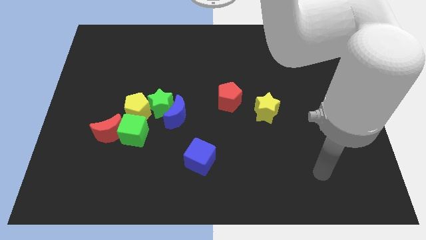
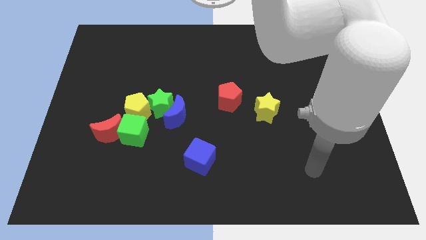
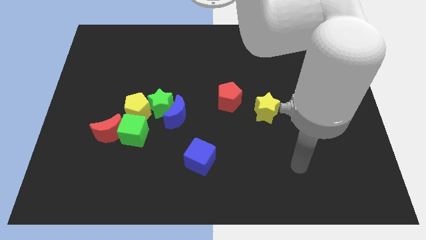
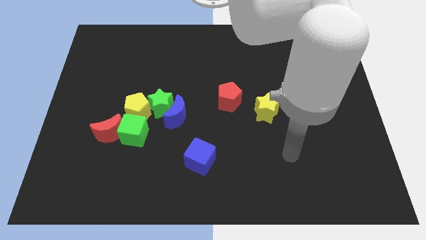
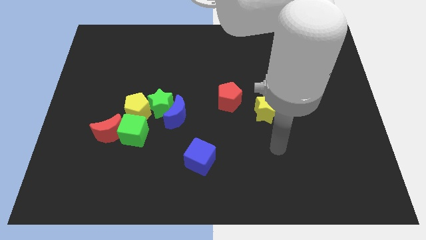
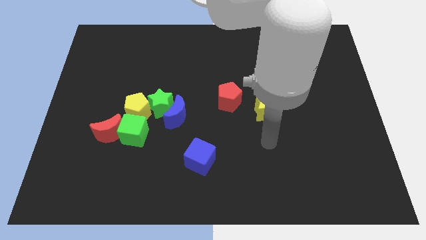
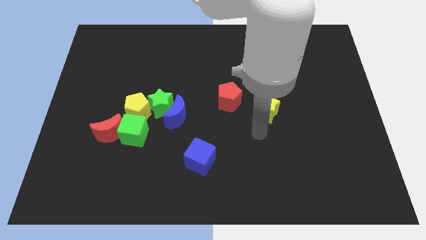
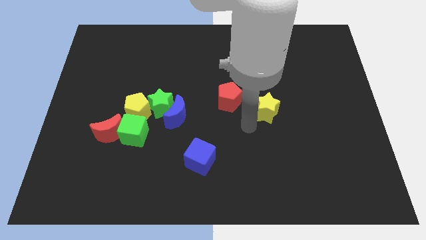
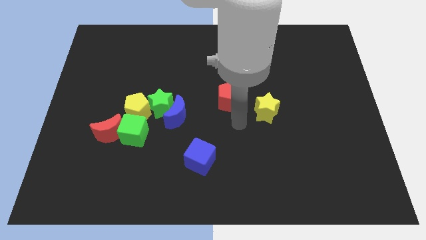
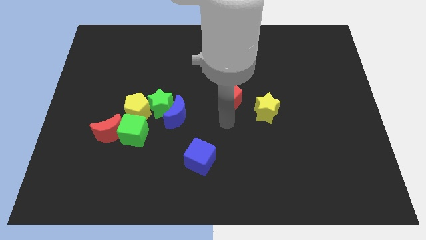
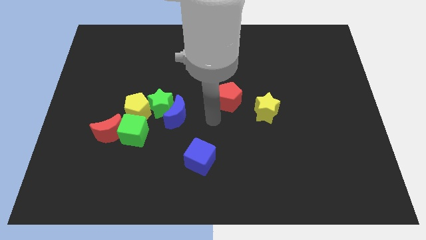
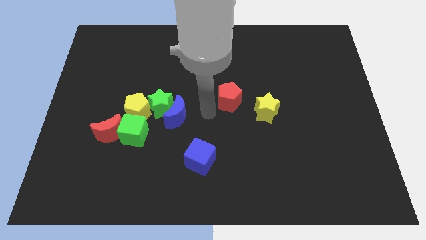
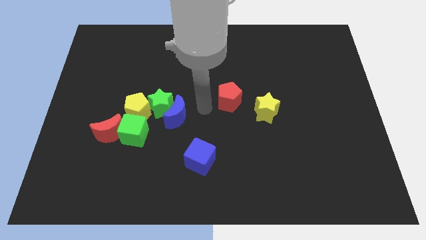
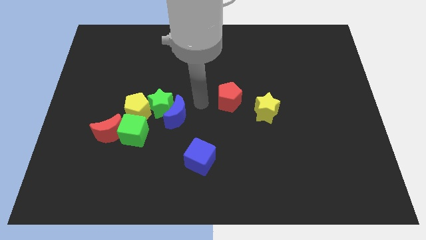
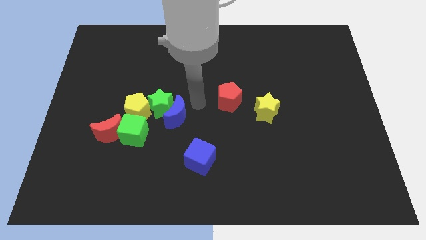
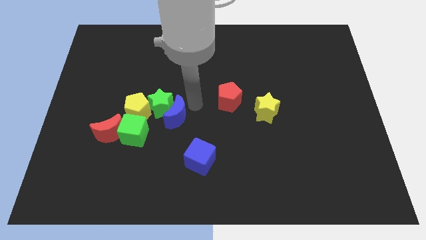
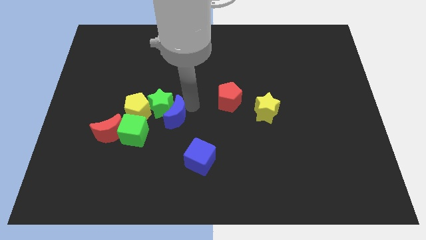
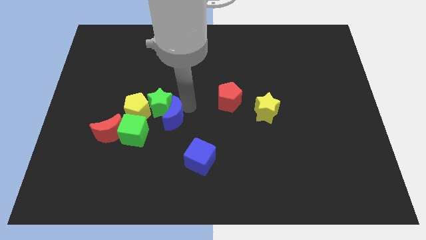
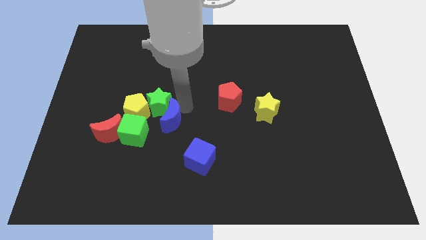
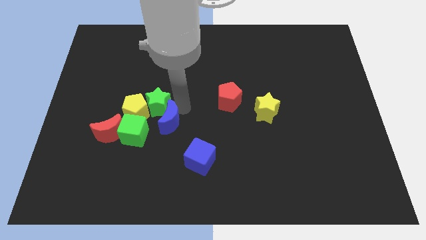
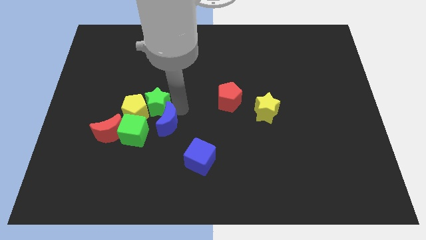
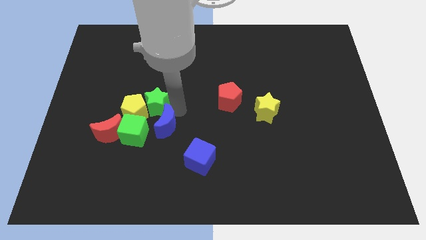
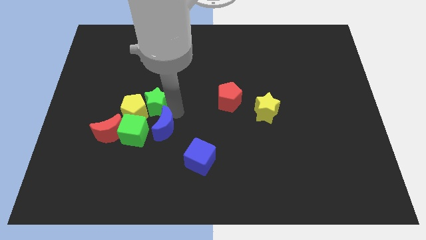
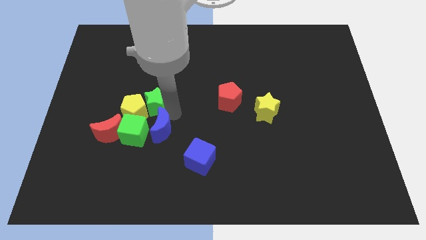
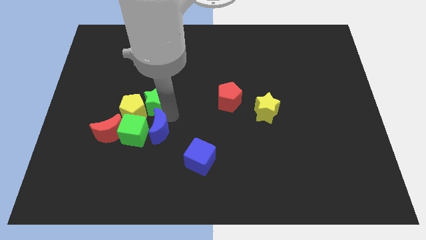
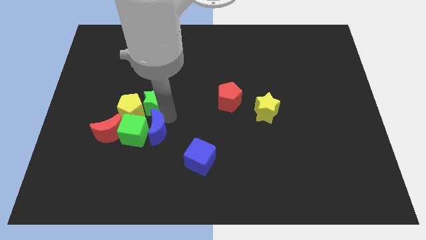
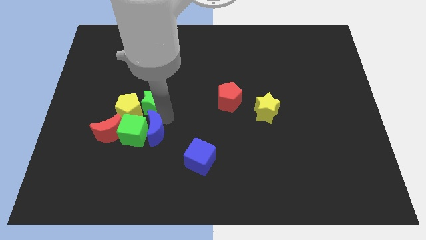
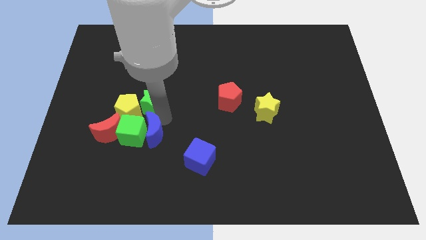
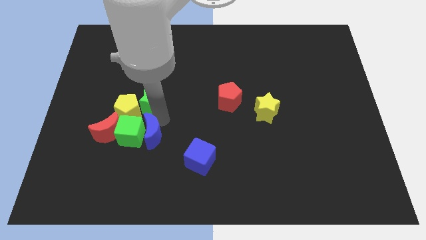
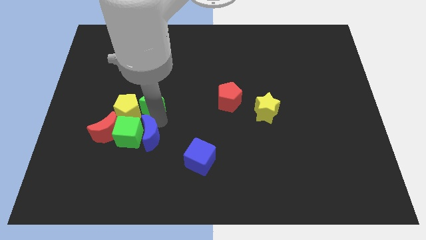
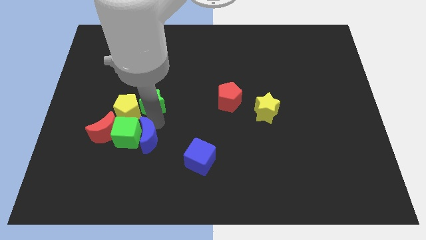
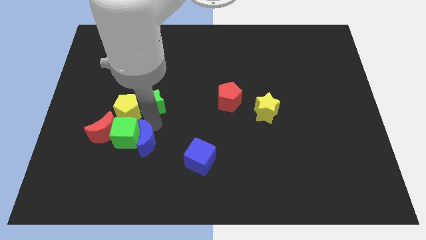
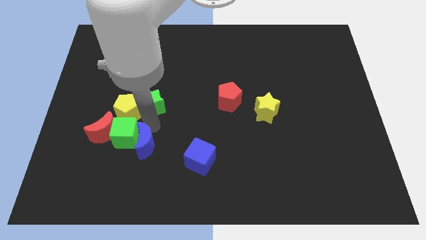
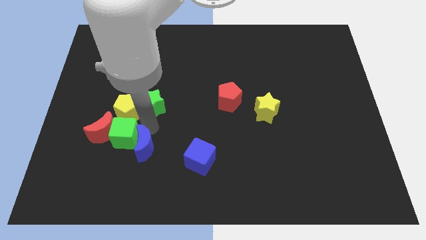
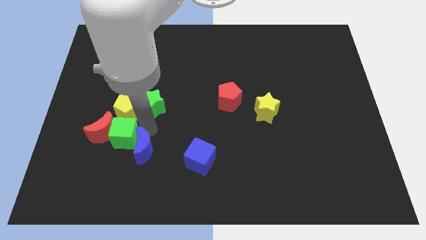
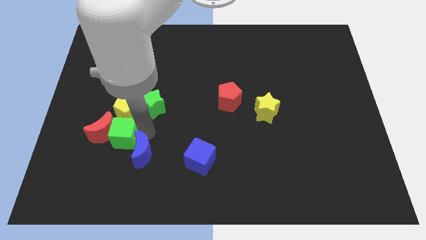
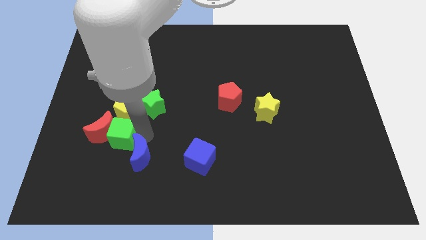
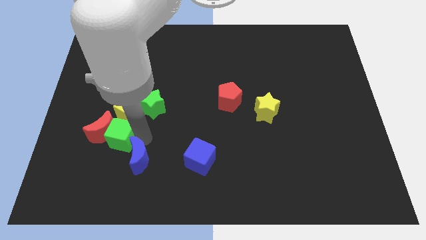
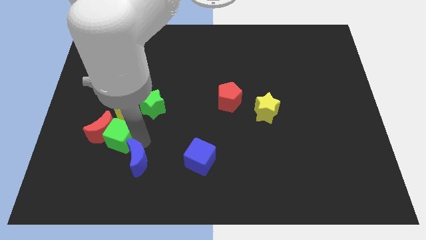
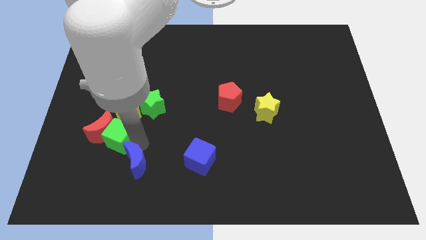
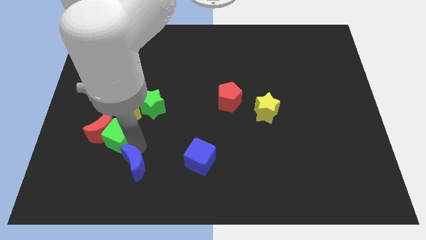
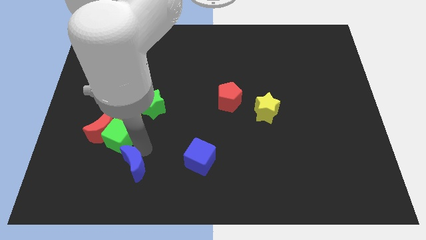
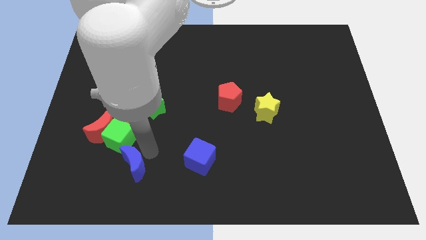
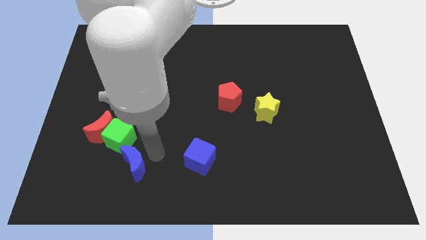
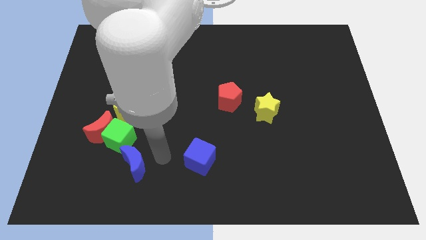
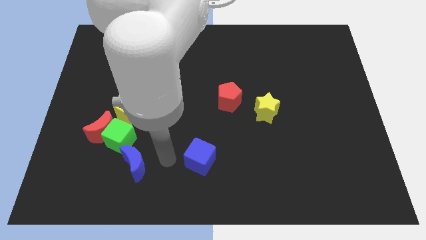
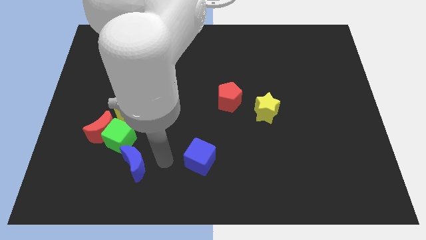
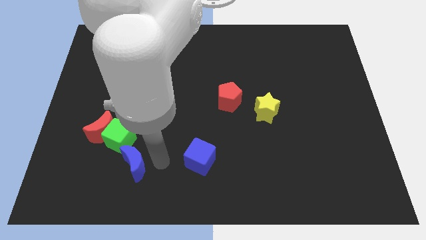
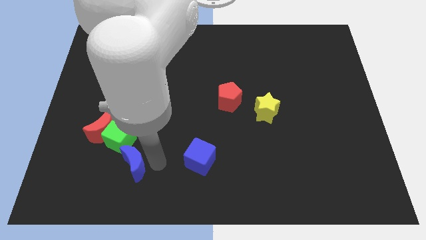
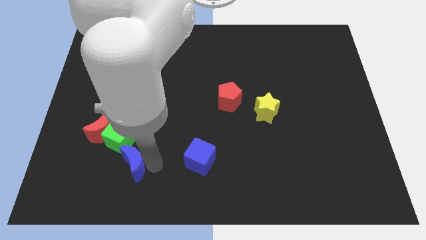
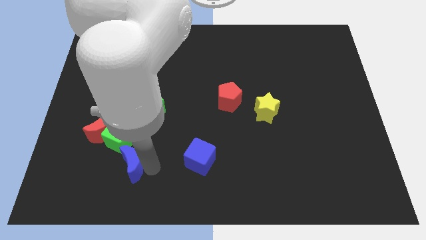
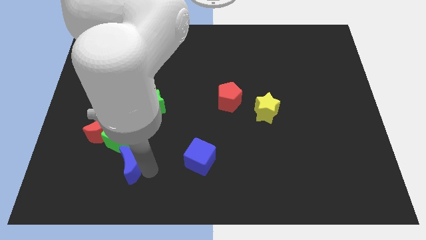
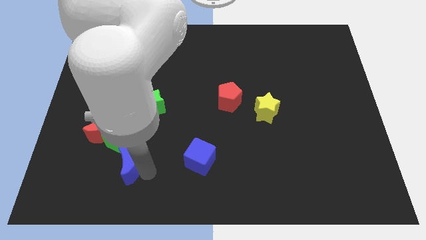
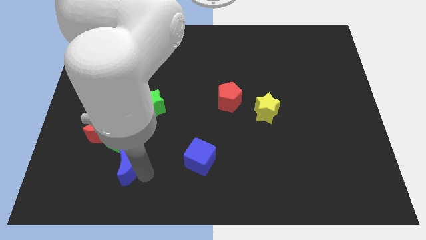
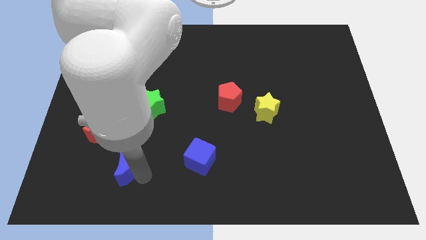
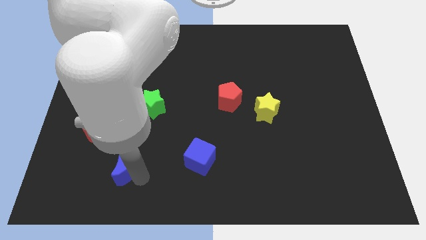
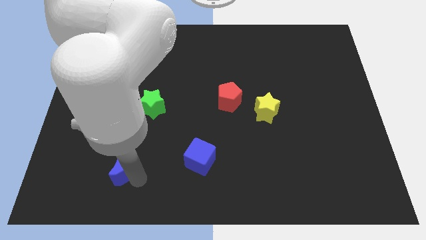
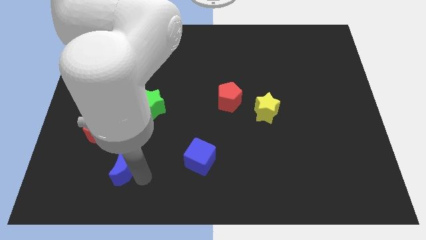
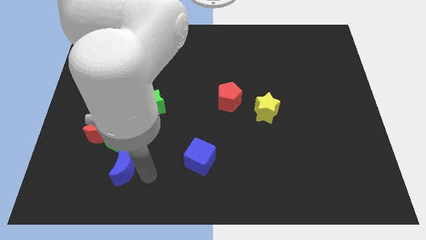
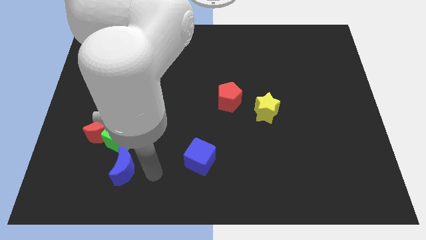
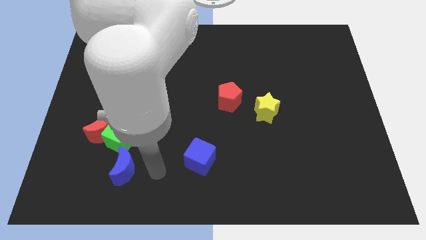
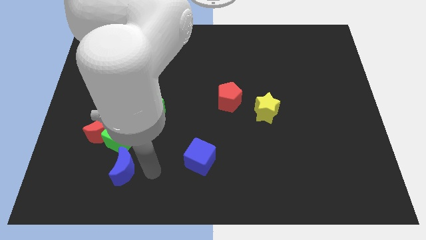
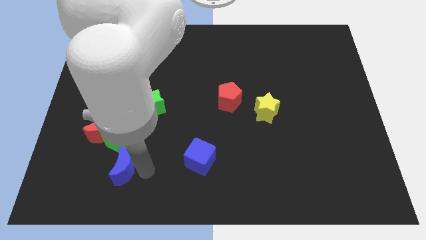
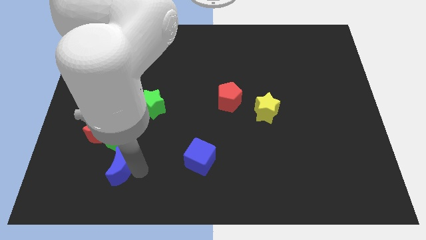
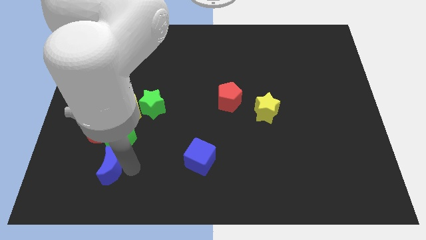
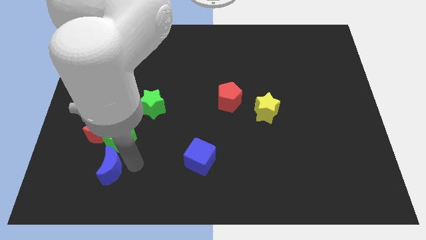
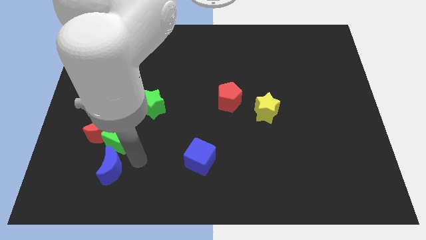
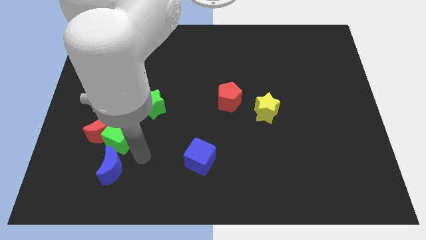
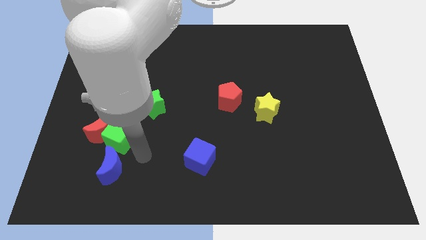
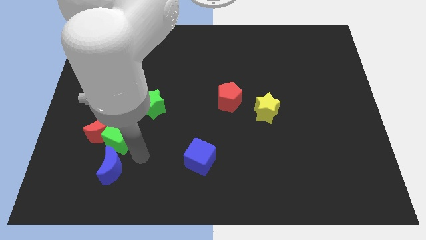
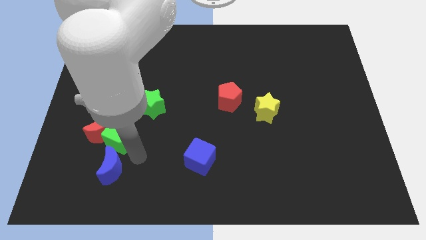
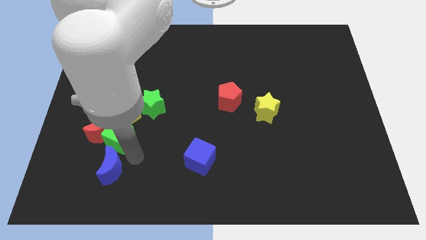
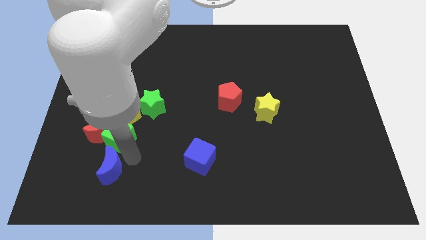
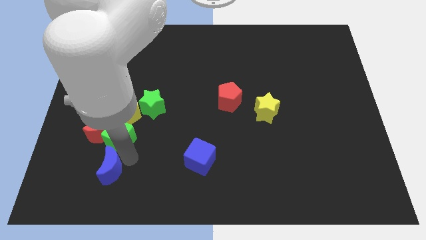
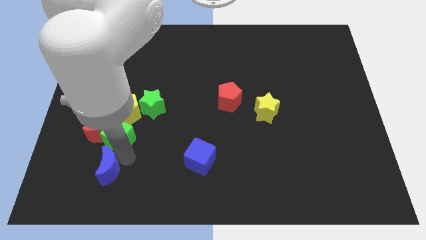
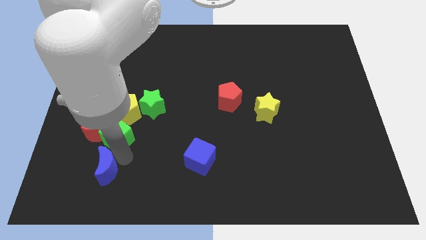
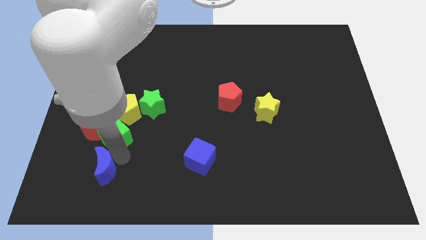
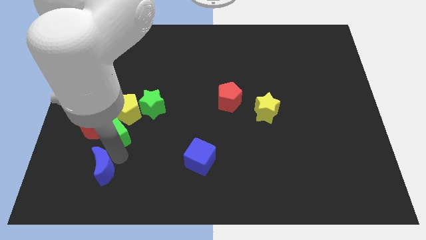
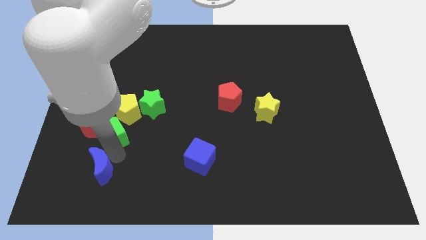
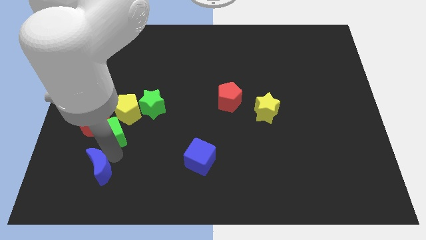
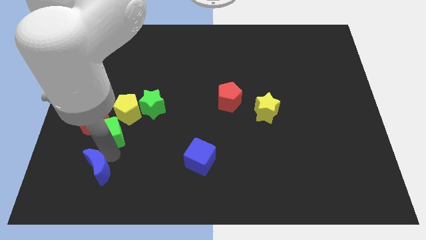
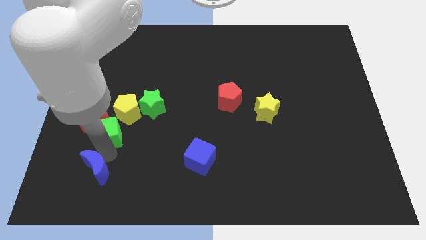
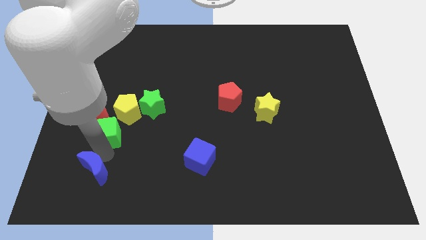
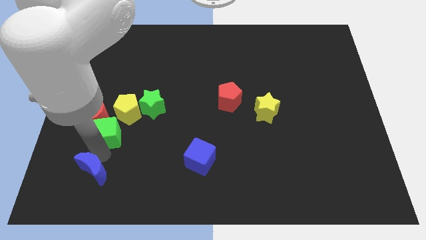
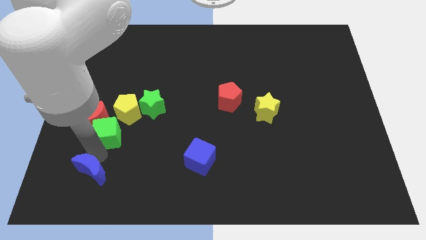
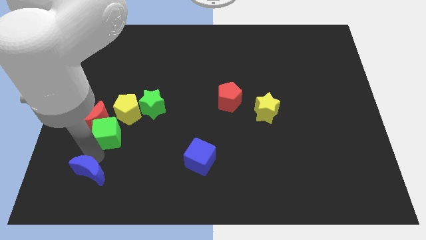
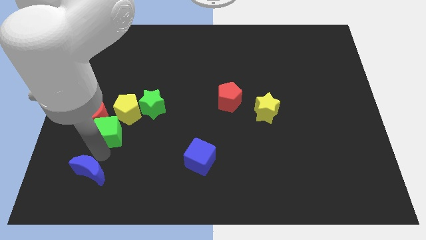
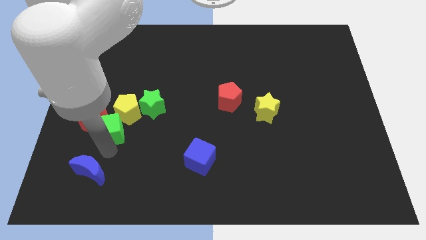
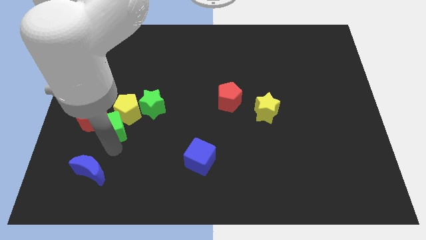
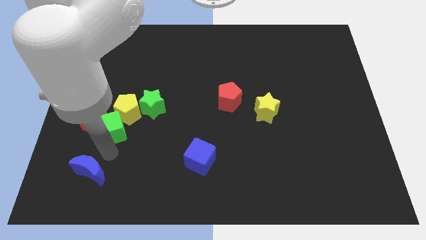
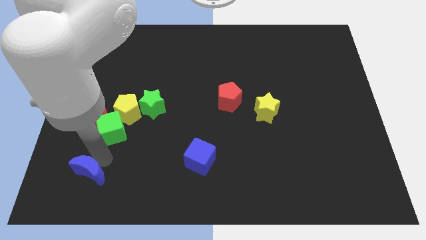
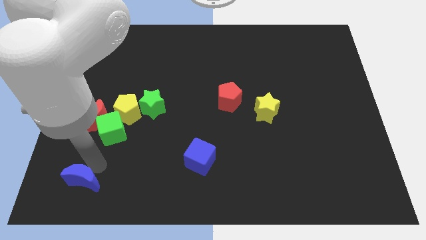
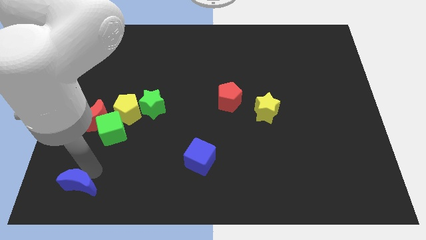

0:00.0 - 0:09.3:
slide the blue moon to the bottom left corner
